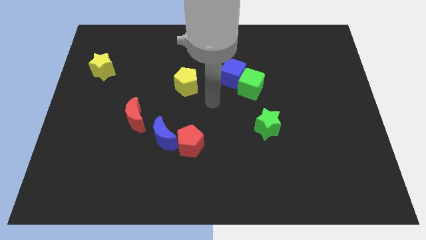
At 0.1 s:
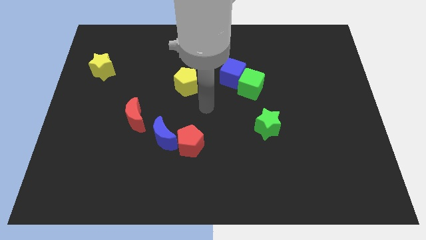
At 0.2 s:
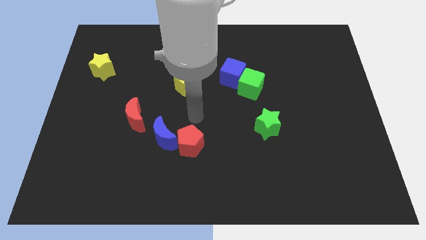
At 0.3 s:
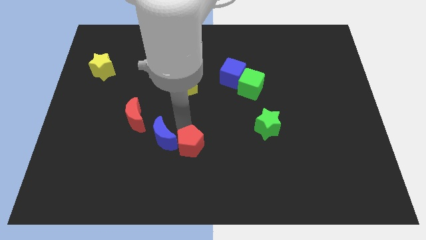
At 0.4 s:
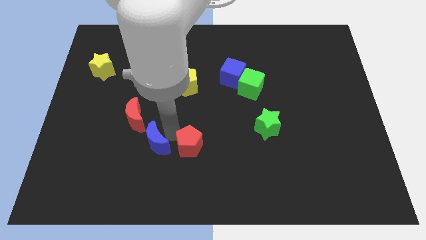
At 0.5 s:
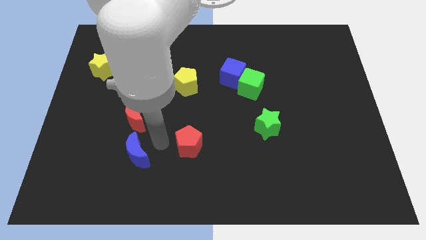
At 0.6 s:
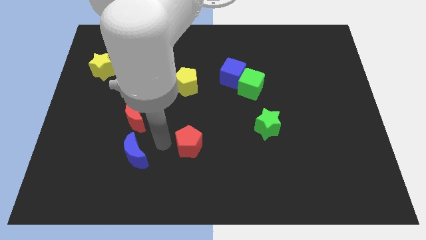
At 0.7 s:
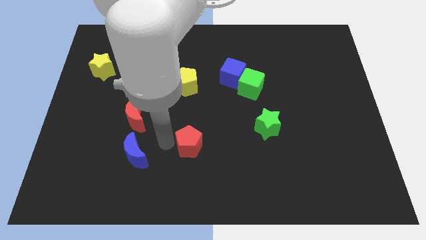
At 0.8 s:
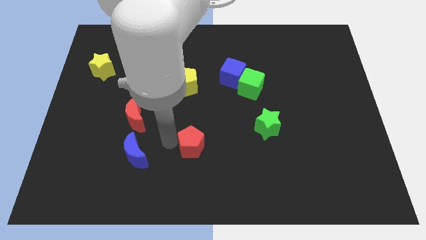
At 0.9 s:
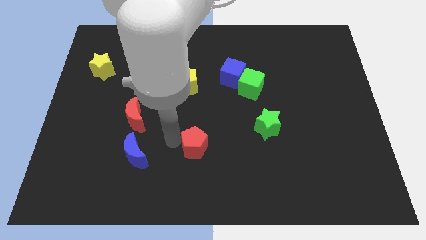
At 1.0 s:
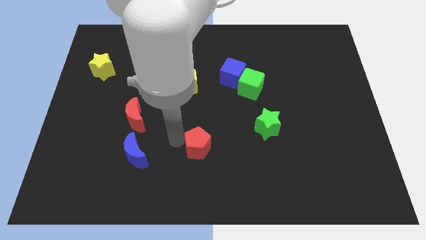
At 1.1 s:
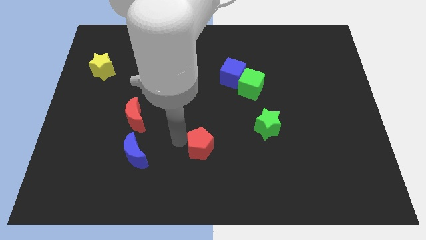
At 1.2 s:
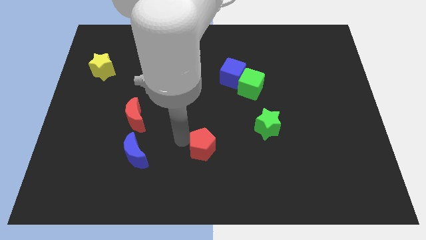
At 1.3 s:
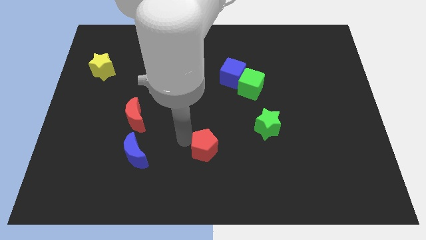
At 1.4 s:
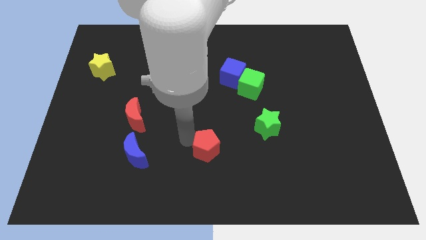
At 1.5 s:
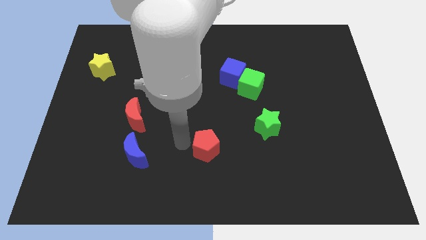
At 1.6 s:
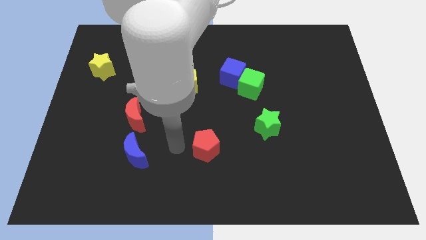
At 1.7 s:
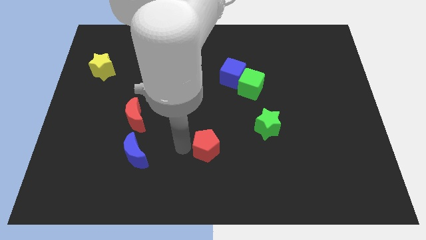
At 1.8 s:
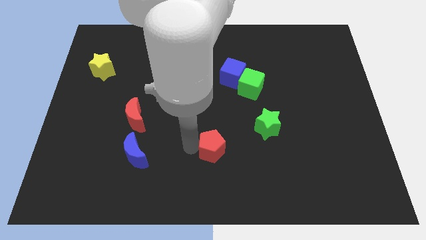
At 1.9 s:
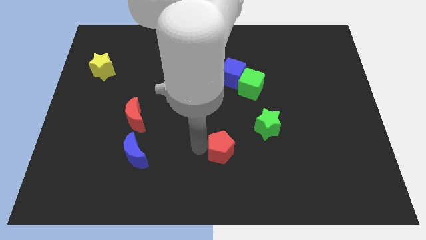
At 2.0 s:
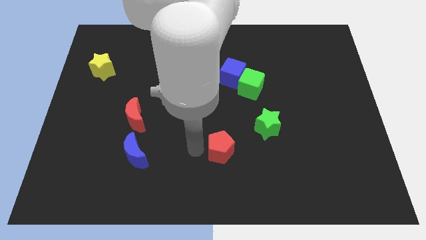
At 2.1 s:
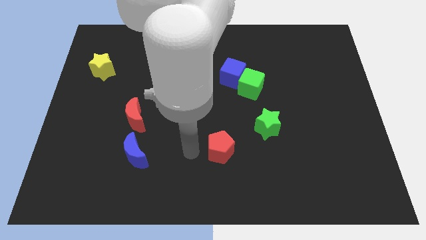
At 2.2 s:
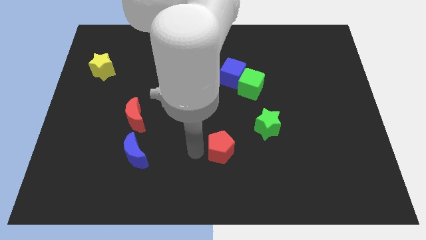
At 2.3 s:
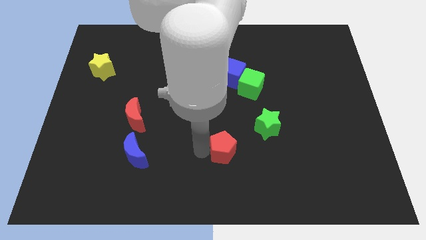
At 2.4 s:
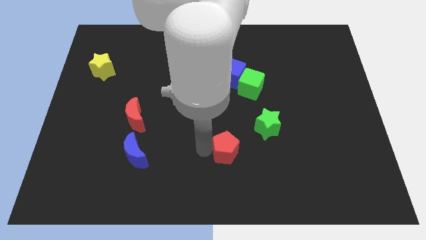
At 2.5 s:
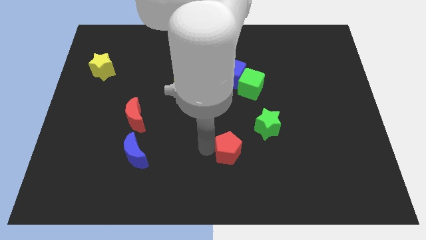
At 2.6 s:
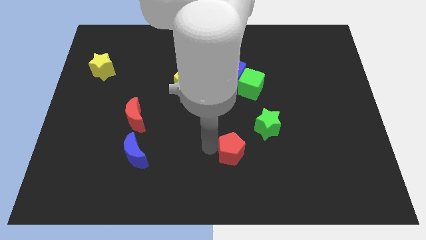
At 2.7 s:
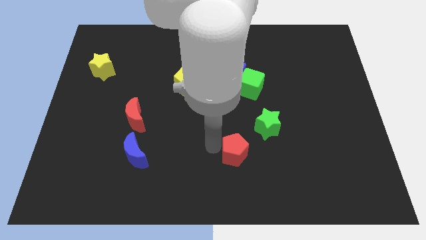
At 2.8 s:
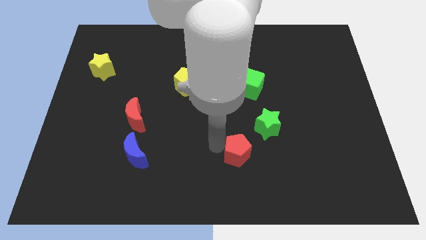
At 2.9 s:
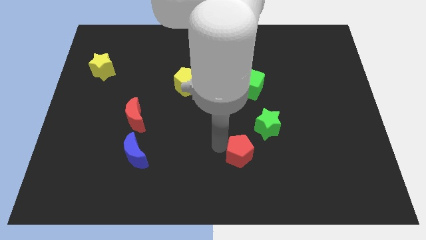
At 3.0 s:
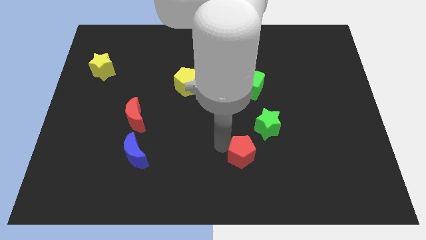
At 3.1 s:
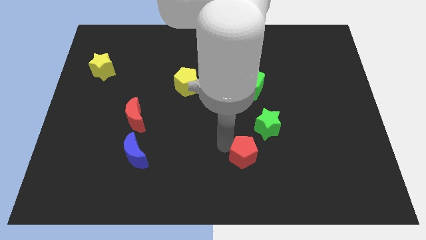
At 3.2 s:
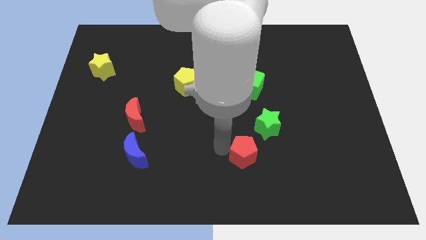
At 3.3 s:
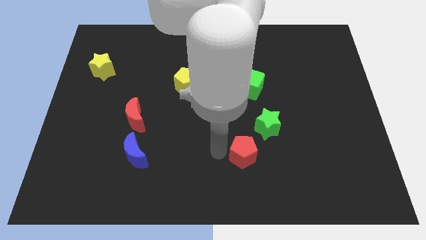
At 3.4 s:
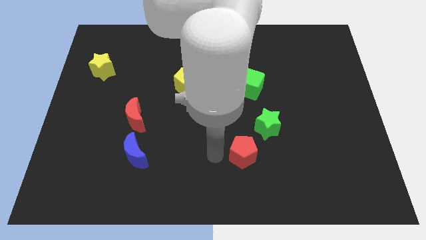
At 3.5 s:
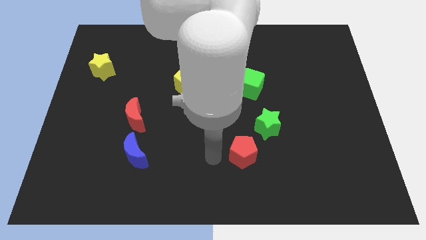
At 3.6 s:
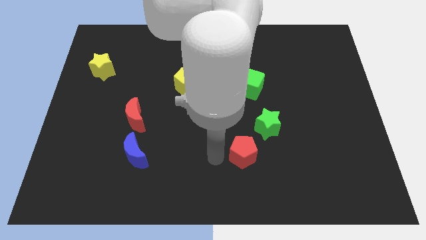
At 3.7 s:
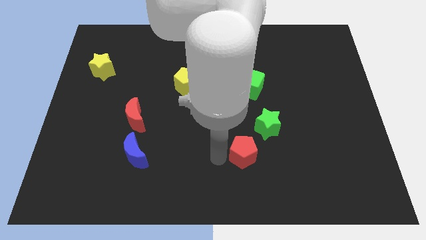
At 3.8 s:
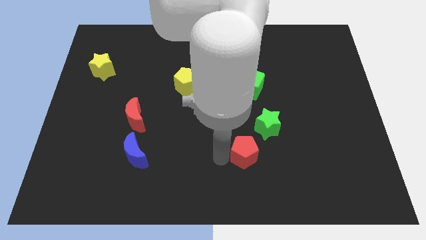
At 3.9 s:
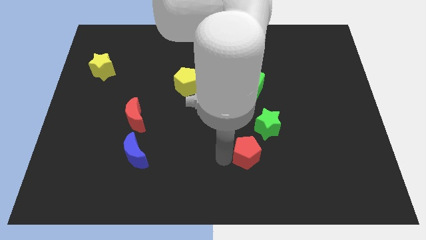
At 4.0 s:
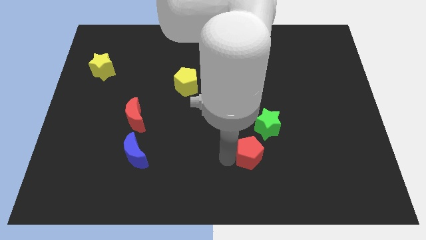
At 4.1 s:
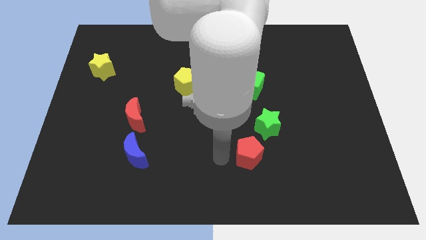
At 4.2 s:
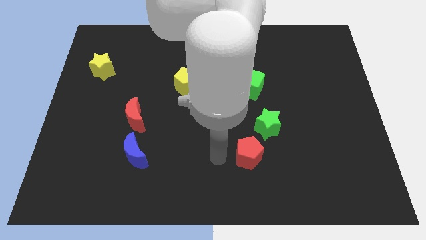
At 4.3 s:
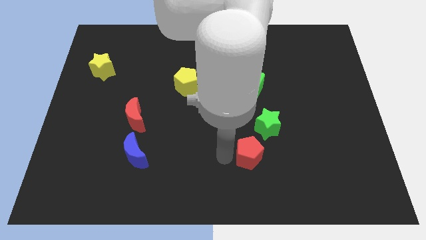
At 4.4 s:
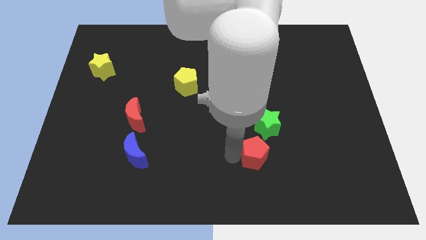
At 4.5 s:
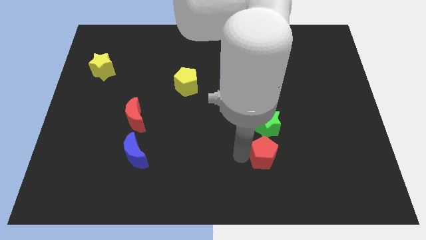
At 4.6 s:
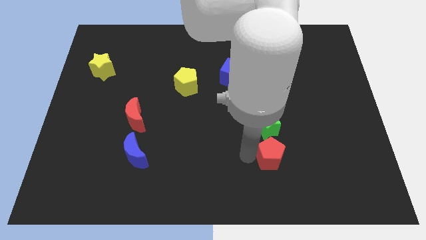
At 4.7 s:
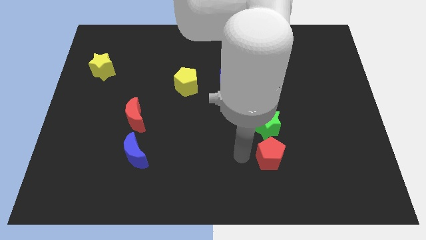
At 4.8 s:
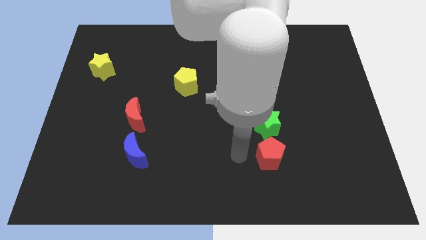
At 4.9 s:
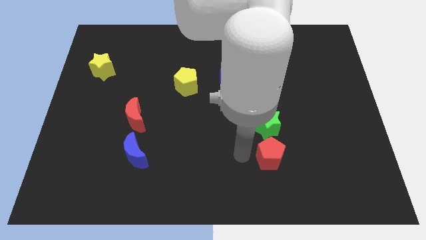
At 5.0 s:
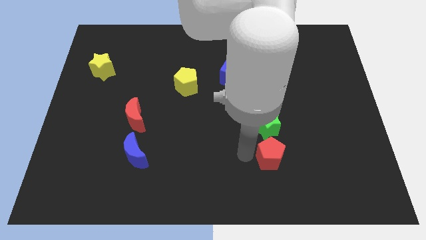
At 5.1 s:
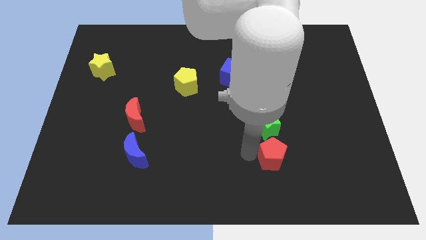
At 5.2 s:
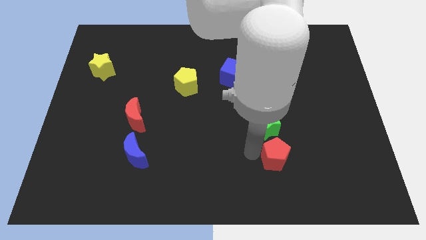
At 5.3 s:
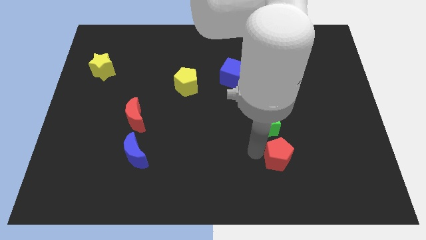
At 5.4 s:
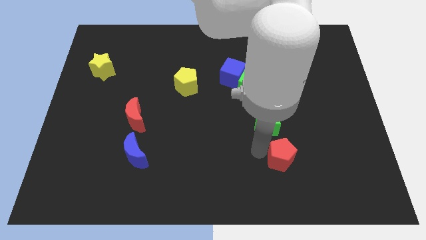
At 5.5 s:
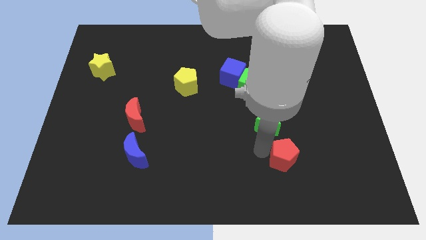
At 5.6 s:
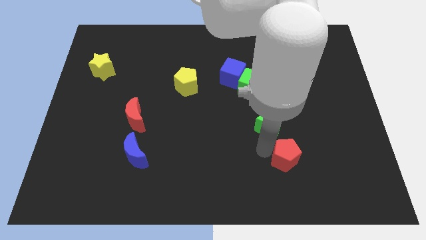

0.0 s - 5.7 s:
move the red pentagon to the right

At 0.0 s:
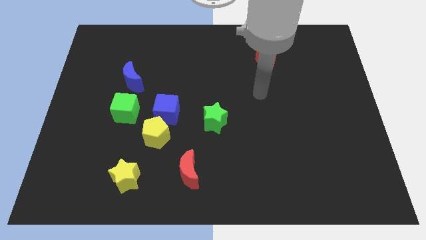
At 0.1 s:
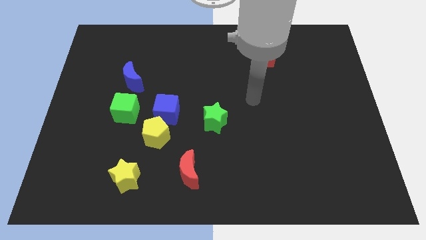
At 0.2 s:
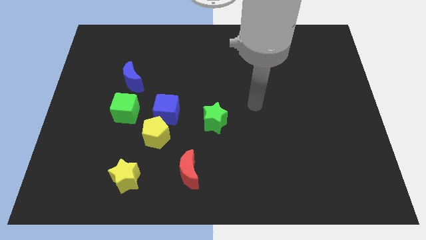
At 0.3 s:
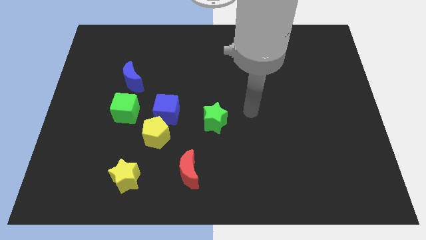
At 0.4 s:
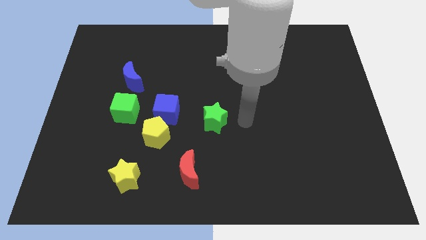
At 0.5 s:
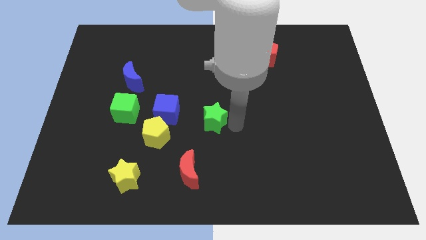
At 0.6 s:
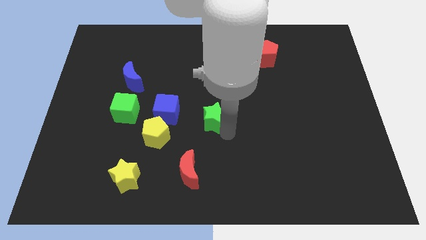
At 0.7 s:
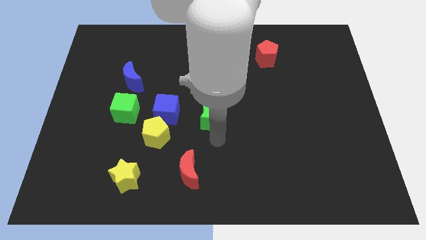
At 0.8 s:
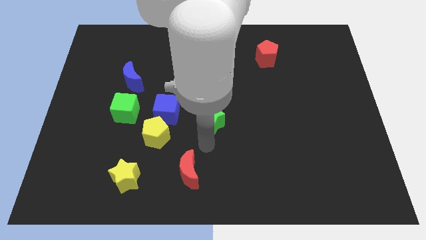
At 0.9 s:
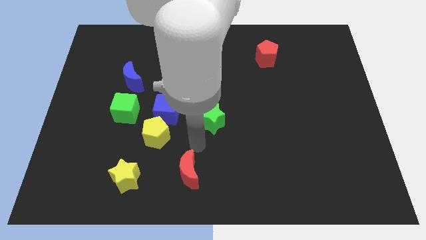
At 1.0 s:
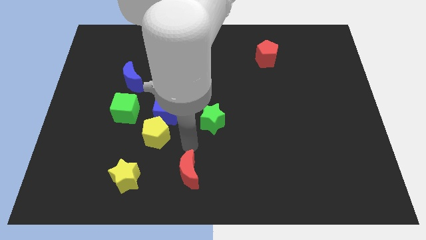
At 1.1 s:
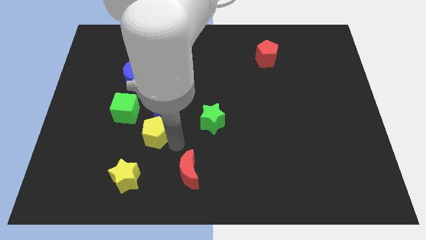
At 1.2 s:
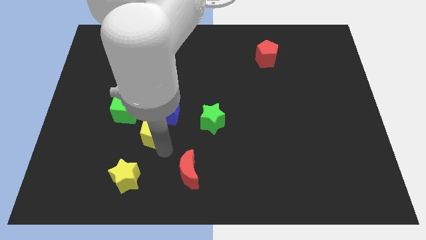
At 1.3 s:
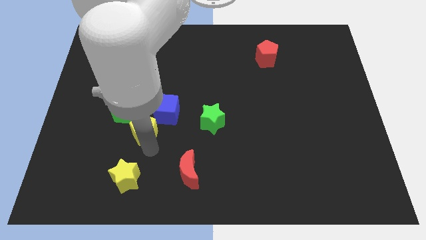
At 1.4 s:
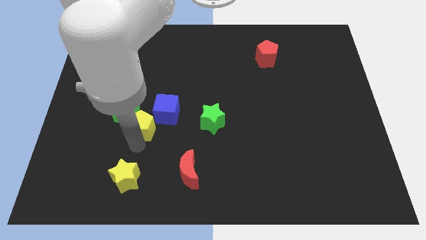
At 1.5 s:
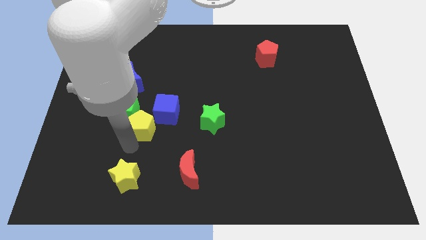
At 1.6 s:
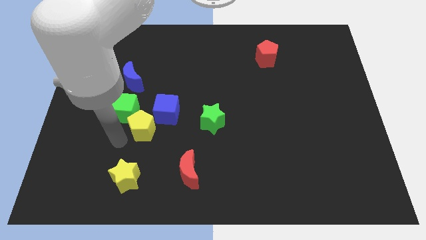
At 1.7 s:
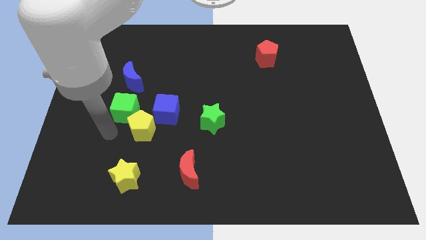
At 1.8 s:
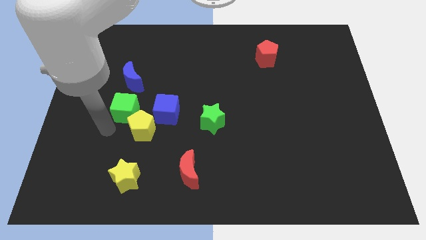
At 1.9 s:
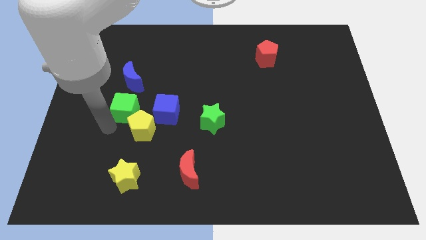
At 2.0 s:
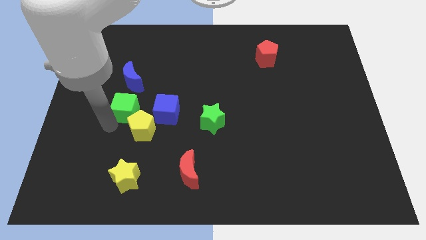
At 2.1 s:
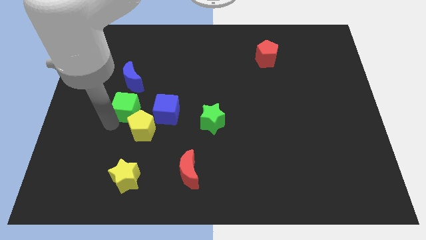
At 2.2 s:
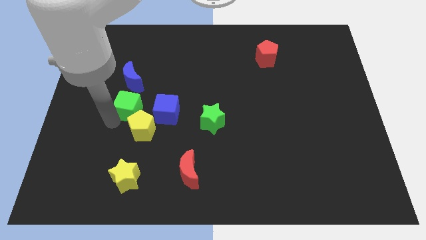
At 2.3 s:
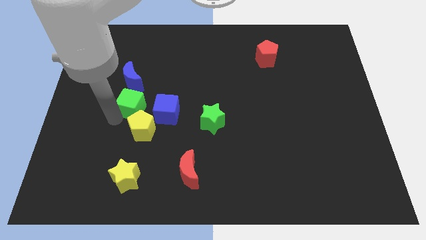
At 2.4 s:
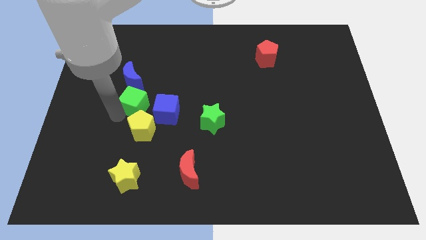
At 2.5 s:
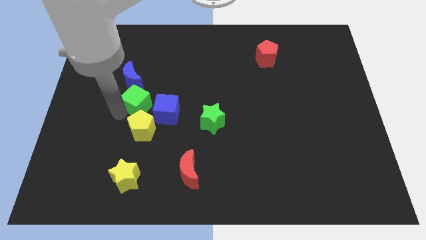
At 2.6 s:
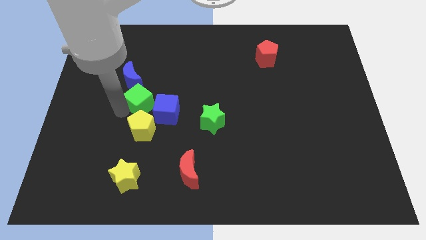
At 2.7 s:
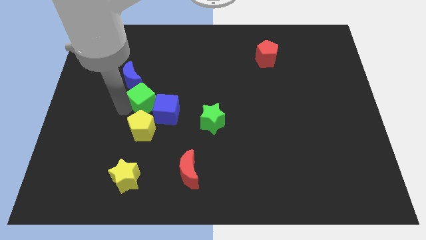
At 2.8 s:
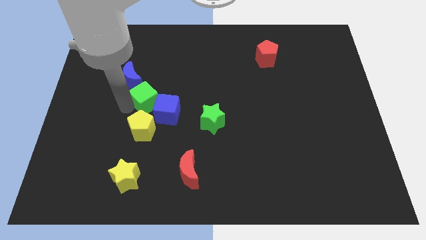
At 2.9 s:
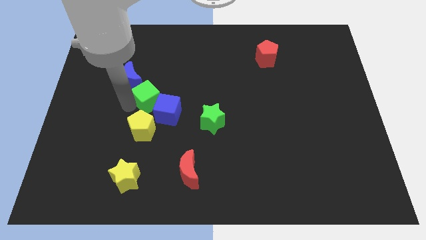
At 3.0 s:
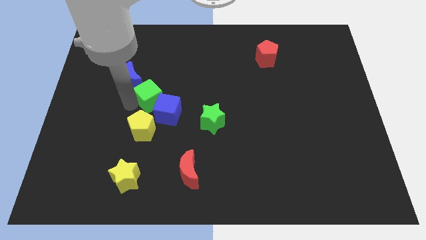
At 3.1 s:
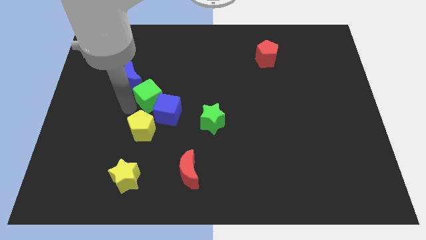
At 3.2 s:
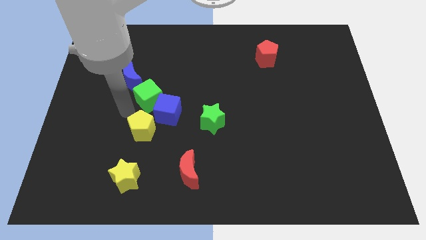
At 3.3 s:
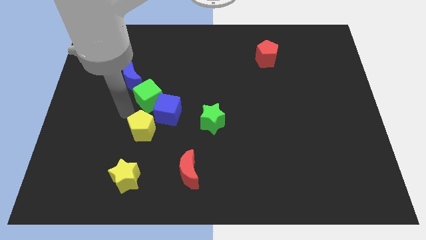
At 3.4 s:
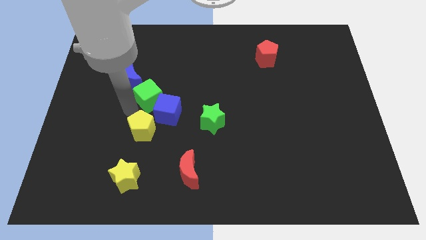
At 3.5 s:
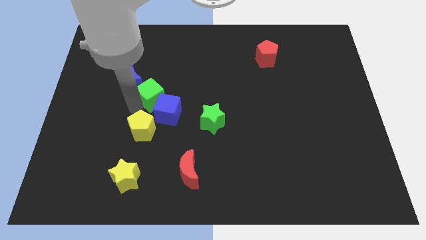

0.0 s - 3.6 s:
slide the green cube somewhat upwards and right diagonally
